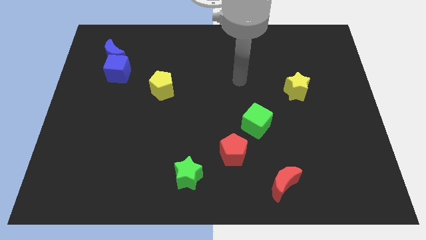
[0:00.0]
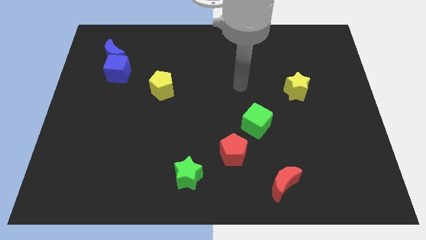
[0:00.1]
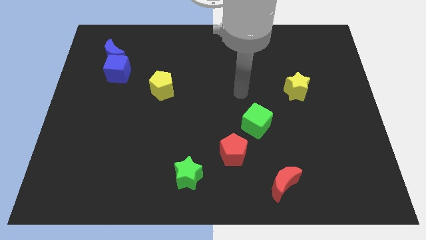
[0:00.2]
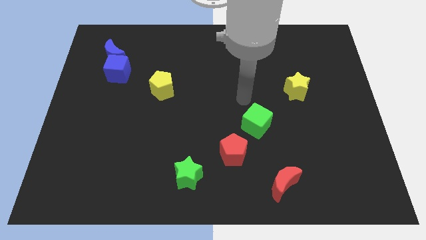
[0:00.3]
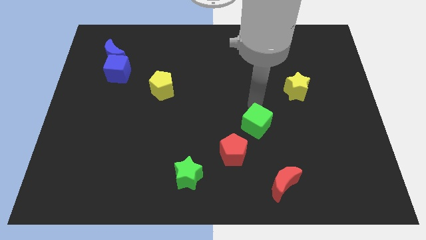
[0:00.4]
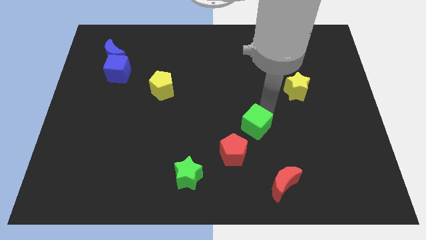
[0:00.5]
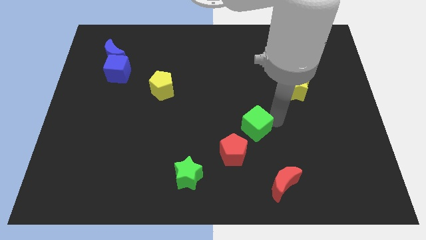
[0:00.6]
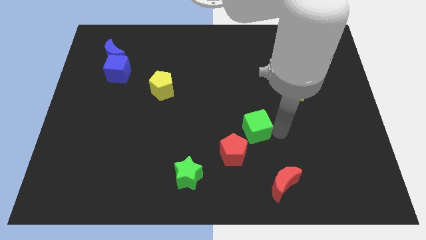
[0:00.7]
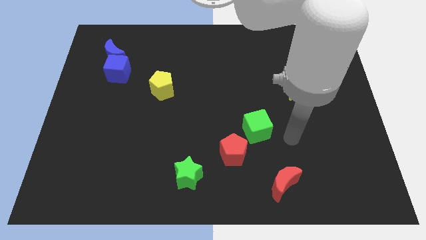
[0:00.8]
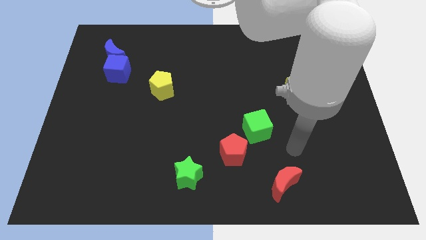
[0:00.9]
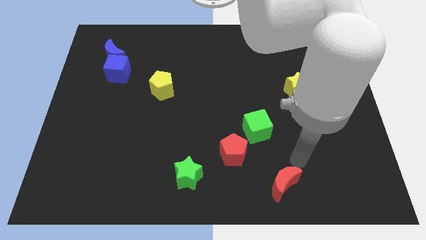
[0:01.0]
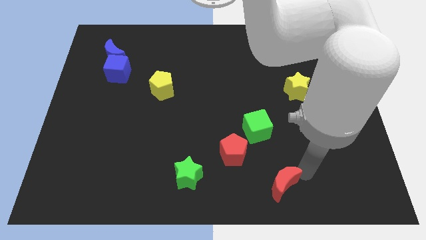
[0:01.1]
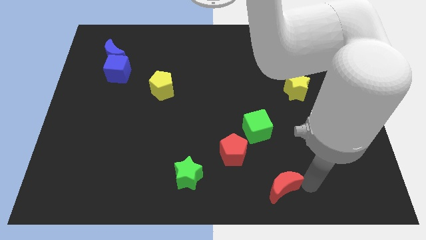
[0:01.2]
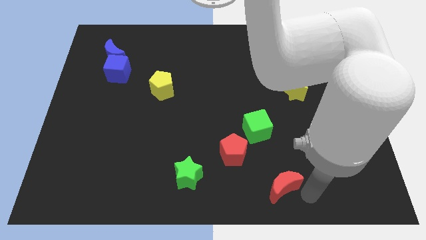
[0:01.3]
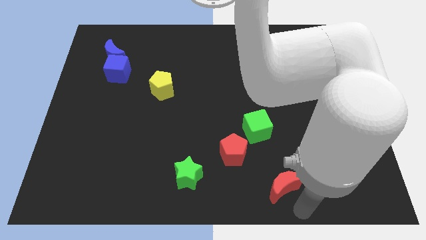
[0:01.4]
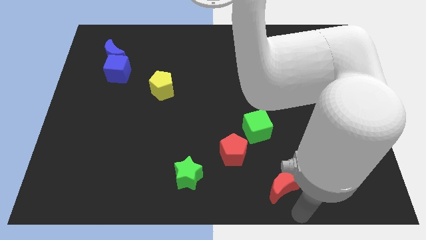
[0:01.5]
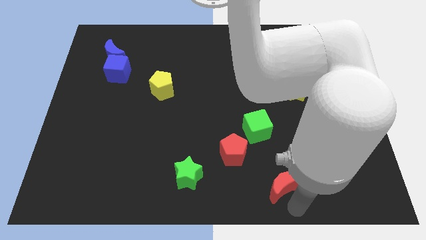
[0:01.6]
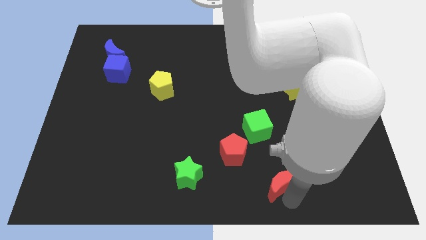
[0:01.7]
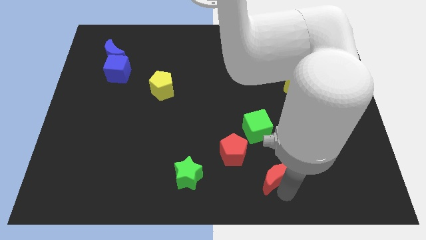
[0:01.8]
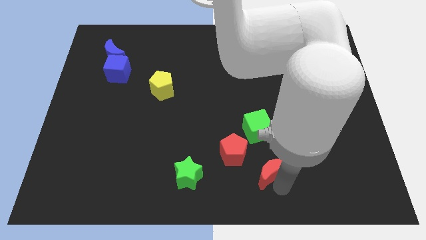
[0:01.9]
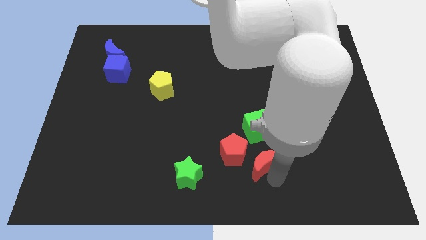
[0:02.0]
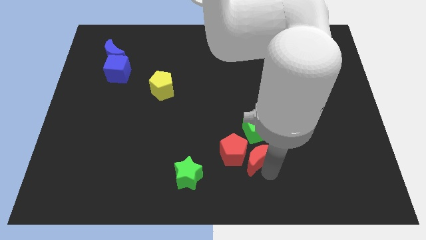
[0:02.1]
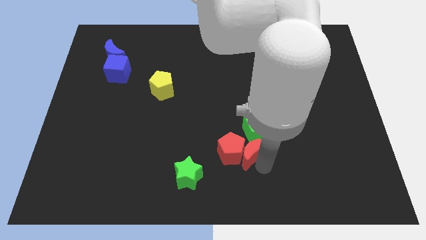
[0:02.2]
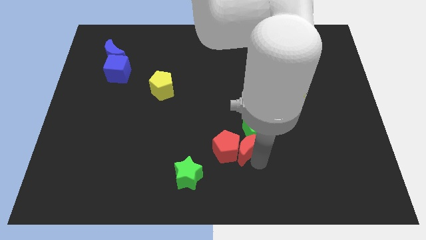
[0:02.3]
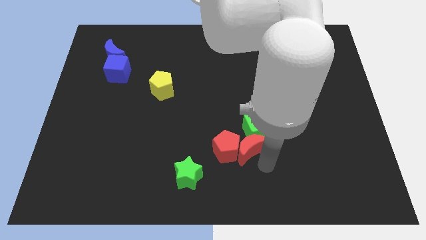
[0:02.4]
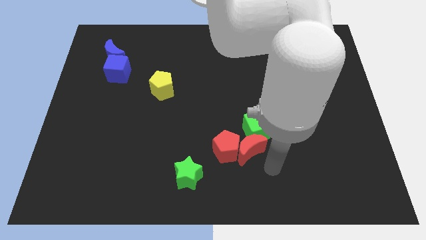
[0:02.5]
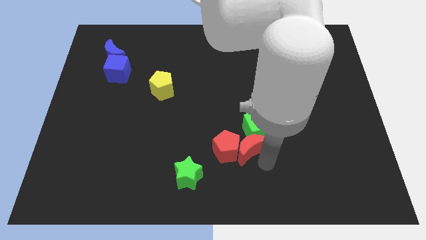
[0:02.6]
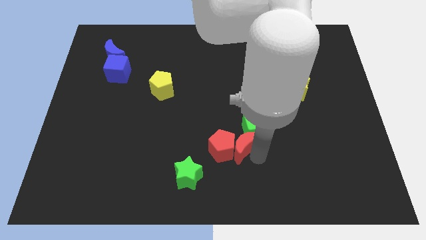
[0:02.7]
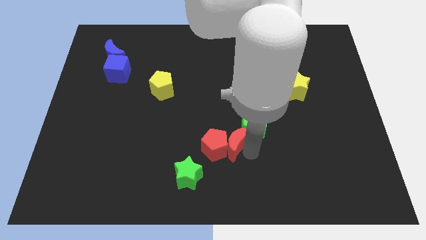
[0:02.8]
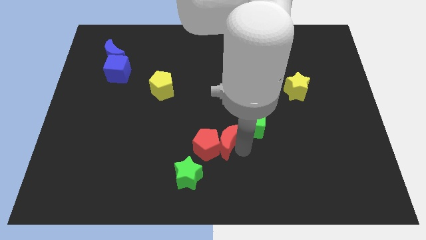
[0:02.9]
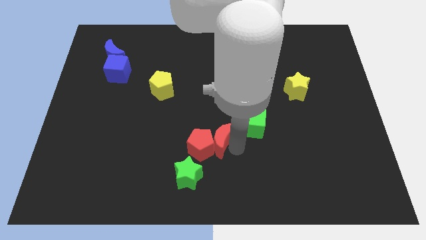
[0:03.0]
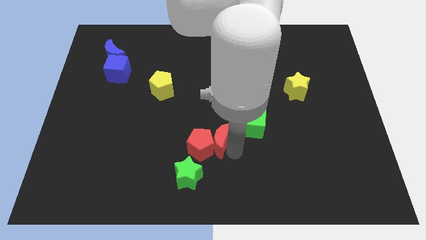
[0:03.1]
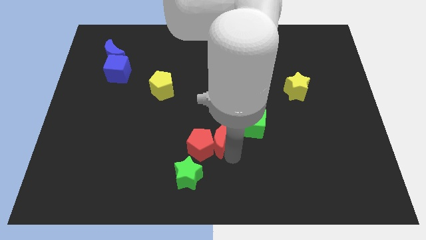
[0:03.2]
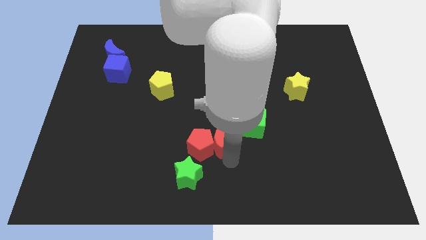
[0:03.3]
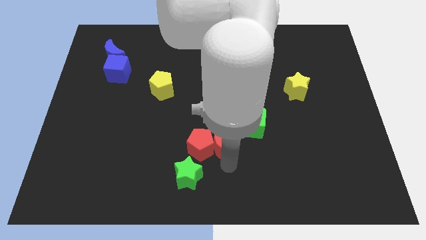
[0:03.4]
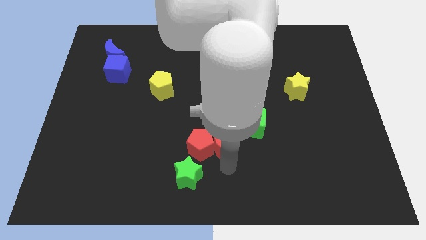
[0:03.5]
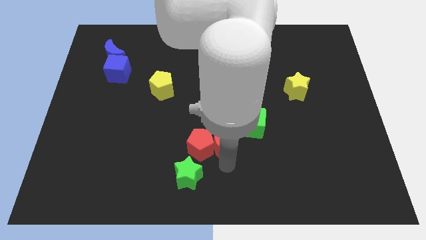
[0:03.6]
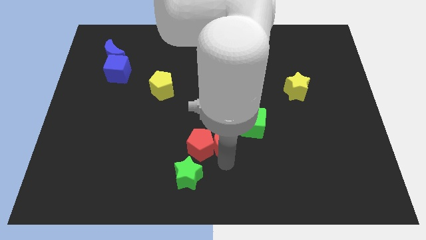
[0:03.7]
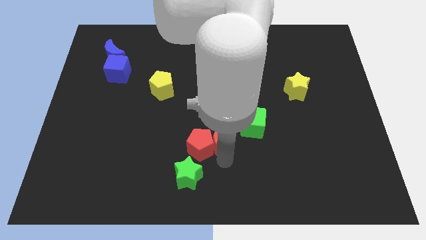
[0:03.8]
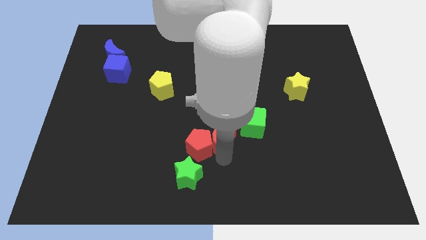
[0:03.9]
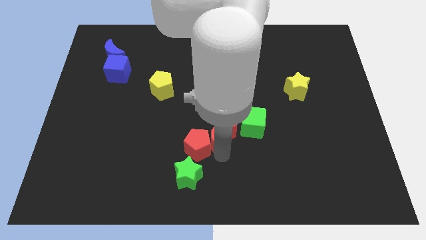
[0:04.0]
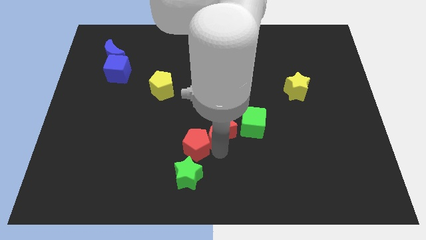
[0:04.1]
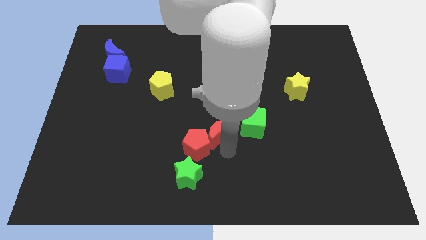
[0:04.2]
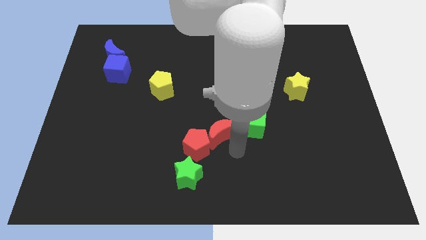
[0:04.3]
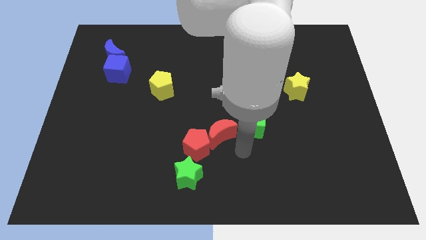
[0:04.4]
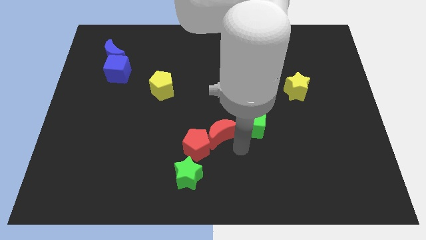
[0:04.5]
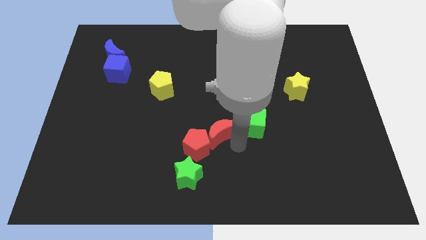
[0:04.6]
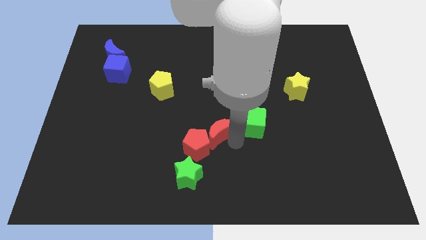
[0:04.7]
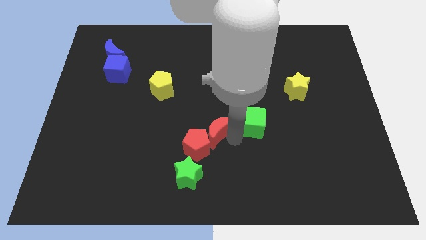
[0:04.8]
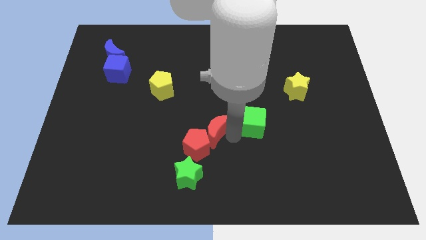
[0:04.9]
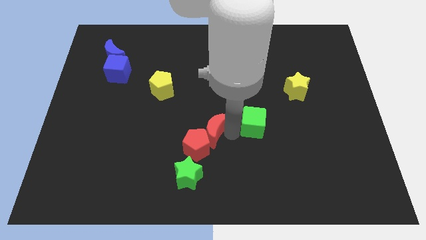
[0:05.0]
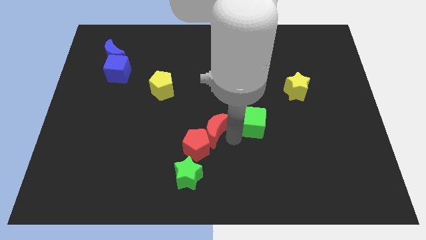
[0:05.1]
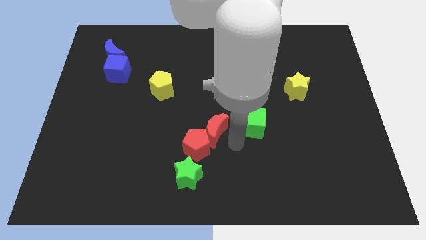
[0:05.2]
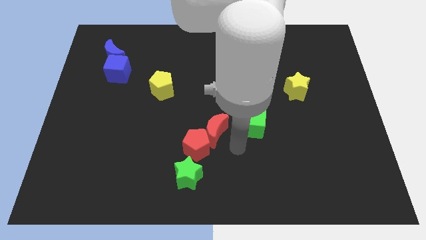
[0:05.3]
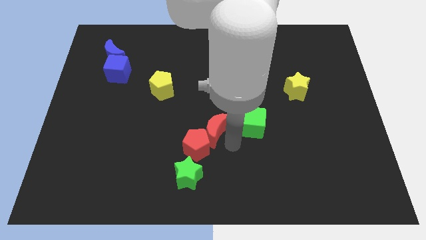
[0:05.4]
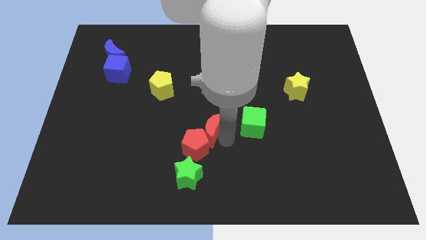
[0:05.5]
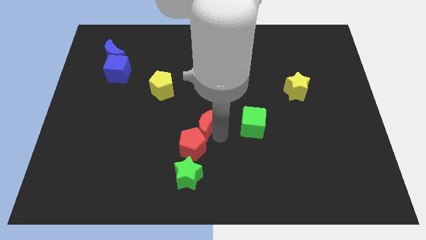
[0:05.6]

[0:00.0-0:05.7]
move the red moon up and then to the left

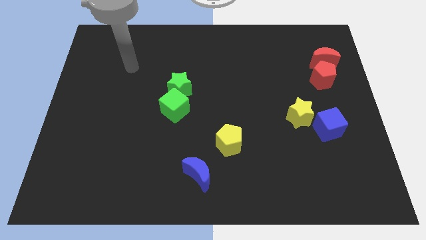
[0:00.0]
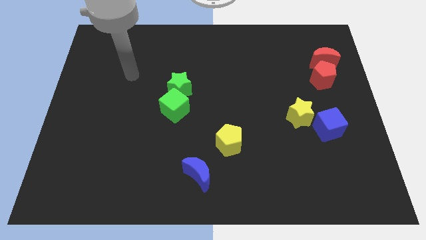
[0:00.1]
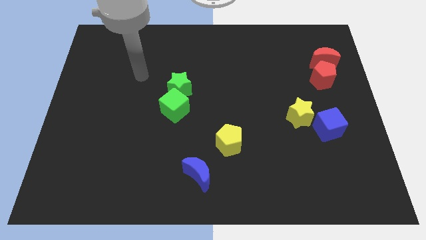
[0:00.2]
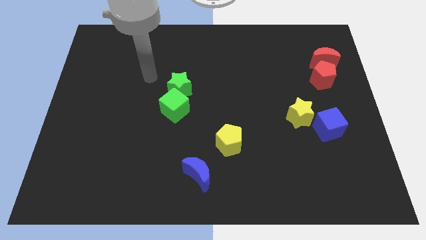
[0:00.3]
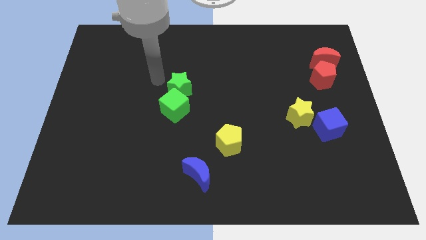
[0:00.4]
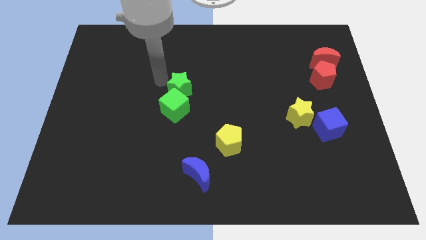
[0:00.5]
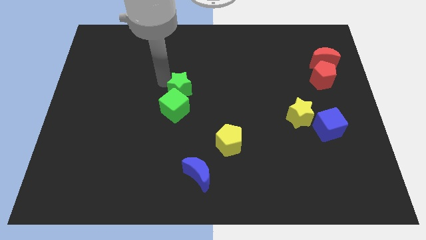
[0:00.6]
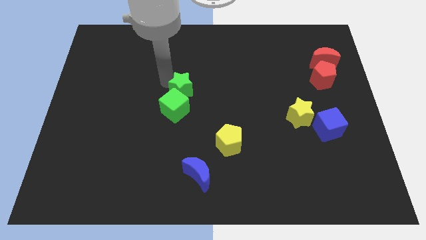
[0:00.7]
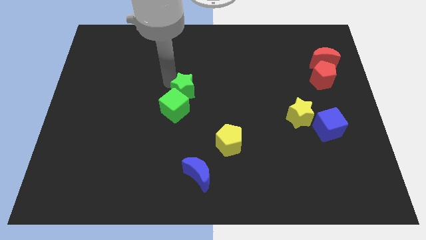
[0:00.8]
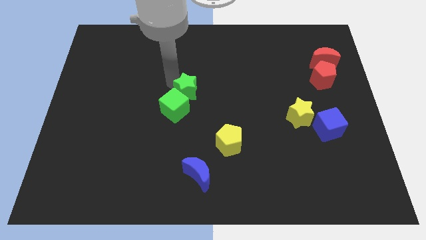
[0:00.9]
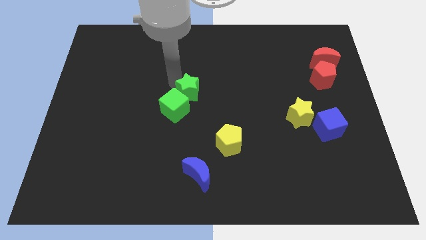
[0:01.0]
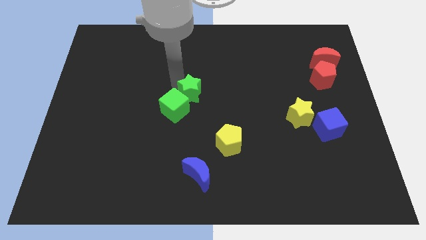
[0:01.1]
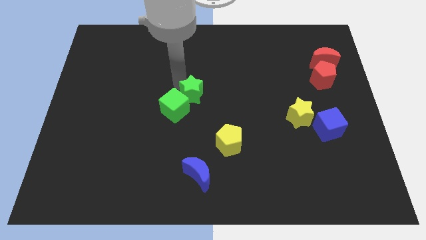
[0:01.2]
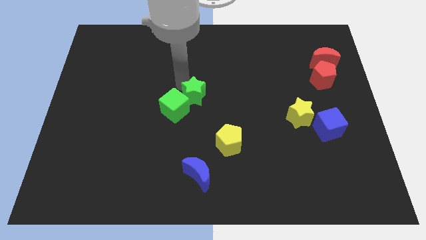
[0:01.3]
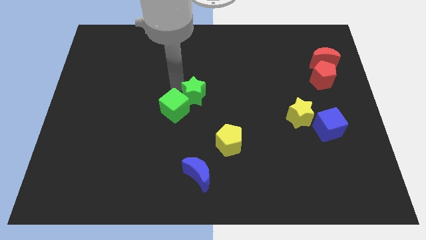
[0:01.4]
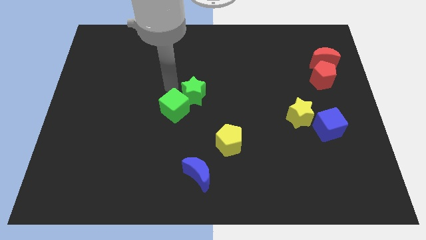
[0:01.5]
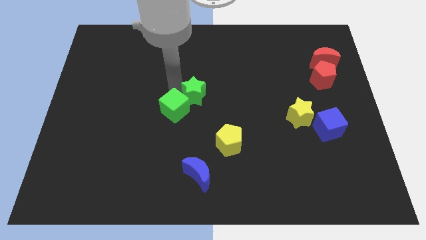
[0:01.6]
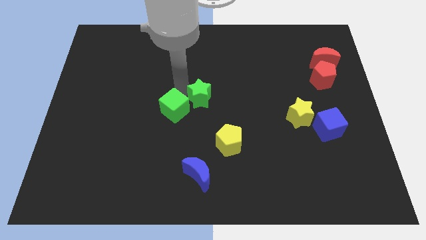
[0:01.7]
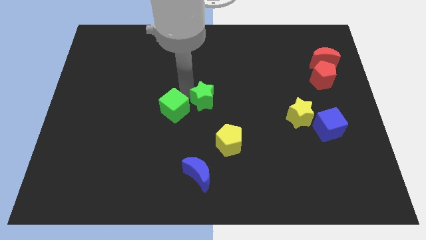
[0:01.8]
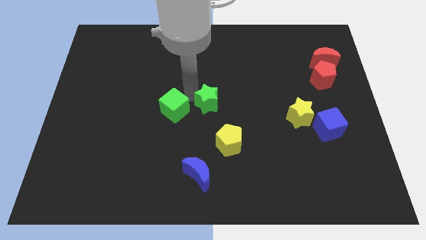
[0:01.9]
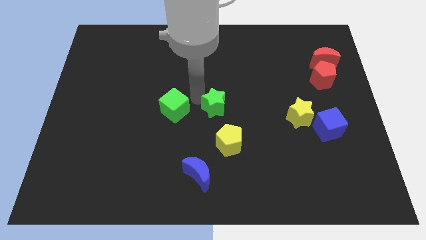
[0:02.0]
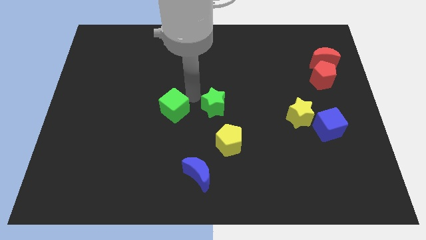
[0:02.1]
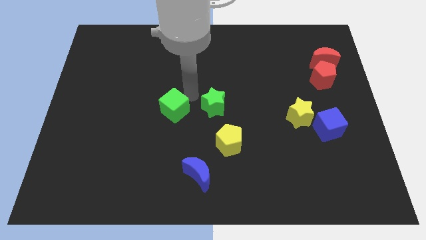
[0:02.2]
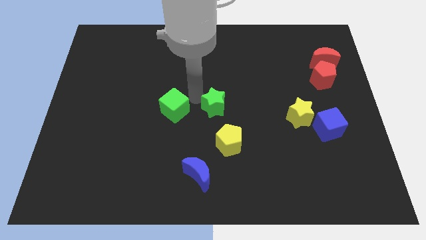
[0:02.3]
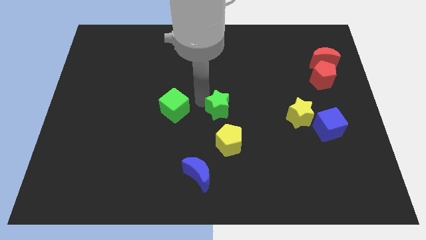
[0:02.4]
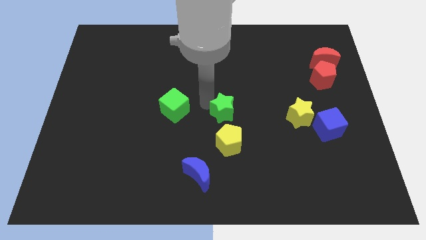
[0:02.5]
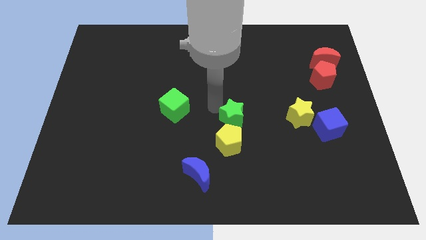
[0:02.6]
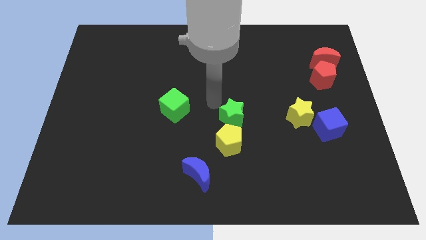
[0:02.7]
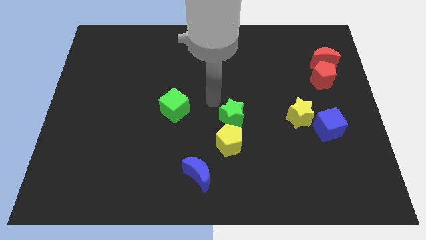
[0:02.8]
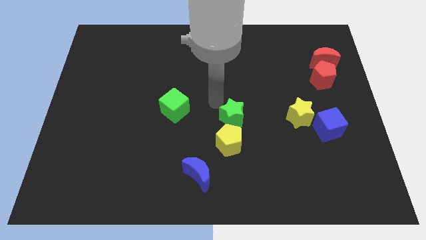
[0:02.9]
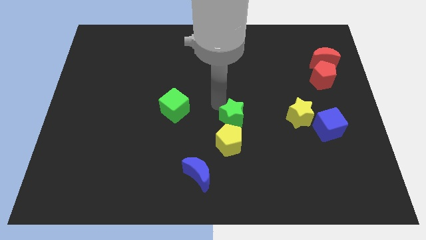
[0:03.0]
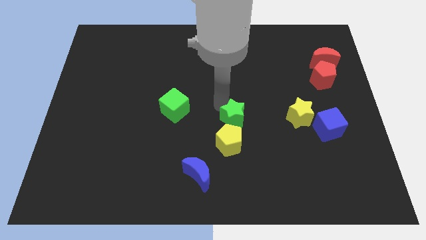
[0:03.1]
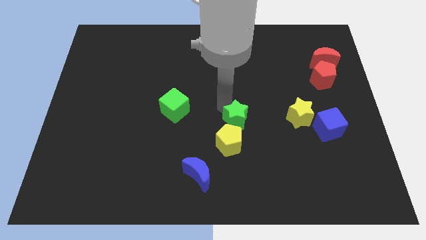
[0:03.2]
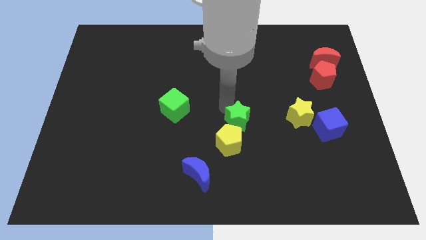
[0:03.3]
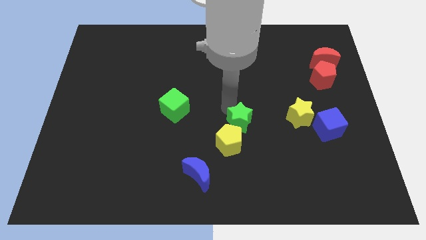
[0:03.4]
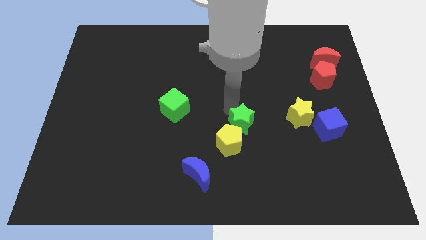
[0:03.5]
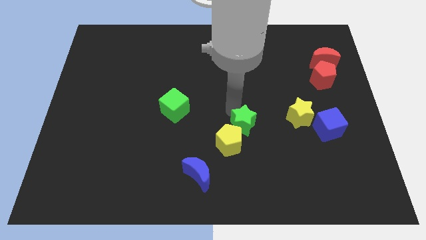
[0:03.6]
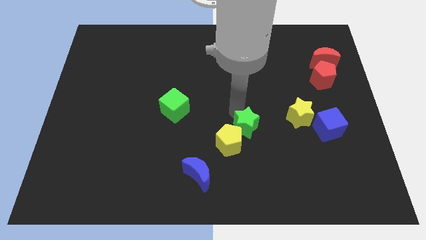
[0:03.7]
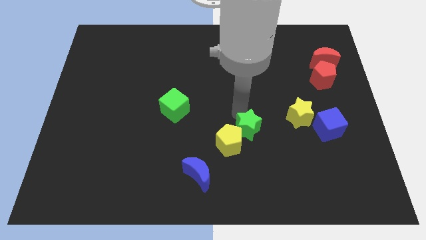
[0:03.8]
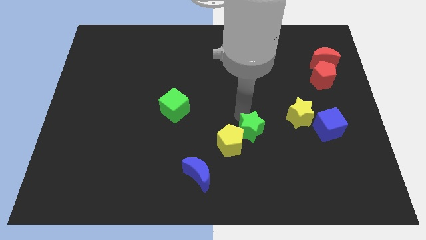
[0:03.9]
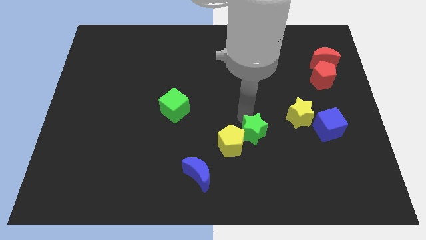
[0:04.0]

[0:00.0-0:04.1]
slide the green star down and then to the right
